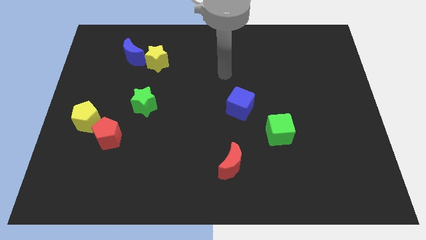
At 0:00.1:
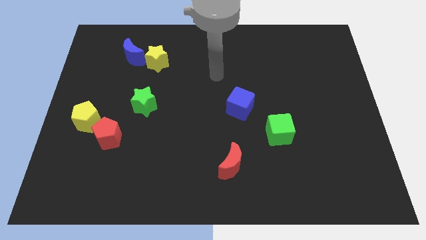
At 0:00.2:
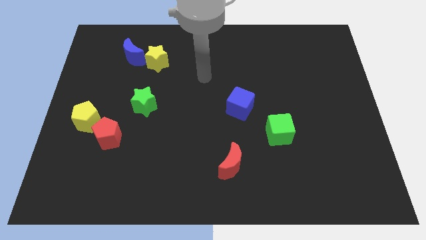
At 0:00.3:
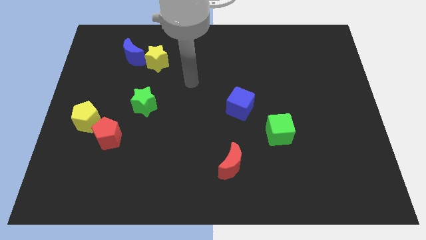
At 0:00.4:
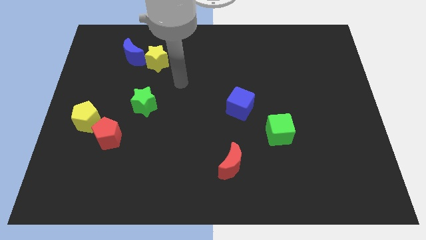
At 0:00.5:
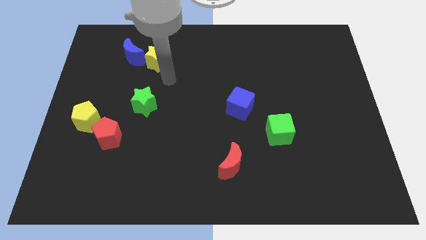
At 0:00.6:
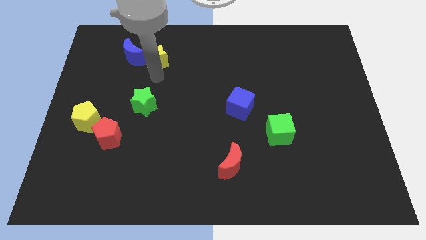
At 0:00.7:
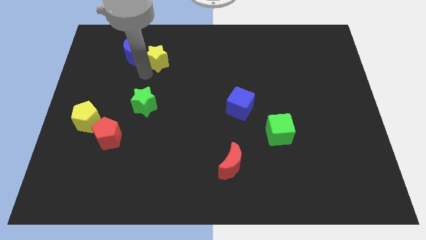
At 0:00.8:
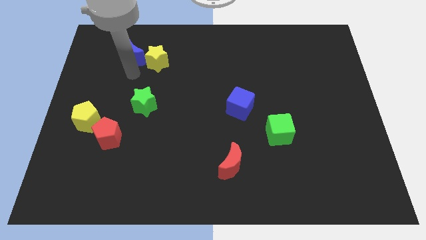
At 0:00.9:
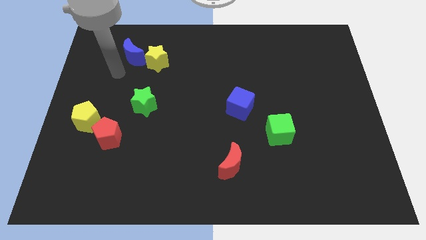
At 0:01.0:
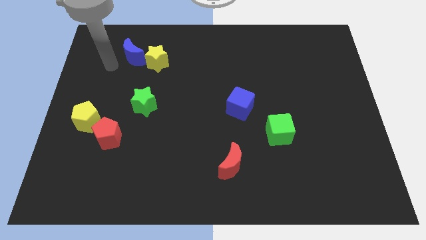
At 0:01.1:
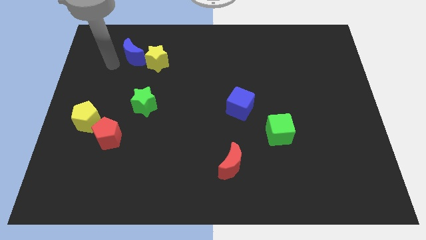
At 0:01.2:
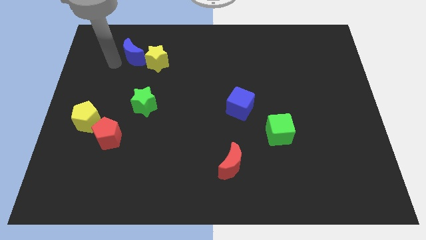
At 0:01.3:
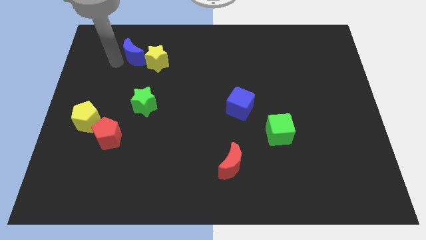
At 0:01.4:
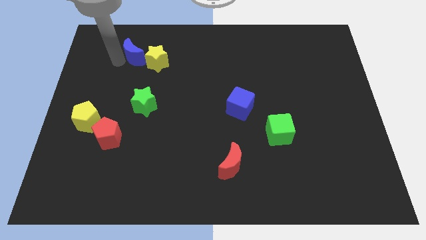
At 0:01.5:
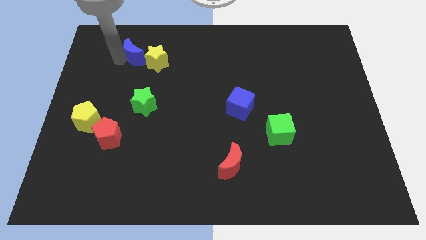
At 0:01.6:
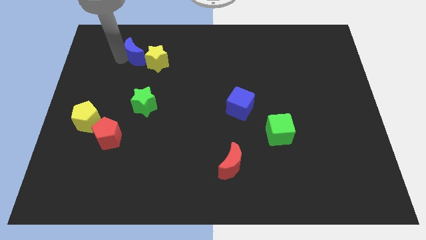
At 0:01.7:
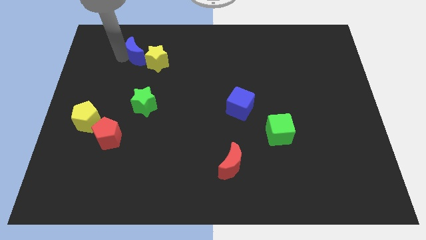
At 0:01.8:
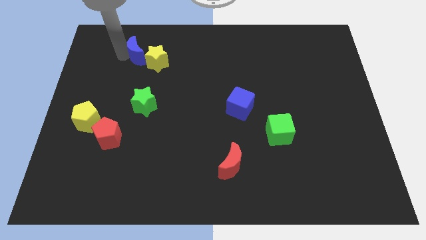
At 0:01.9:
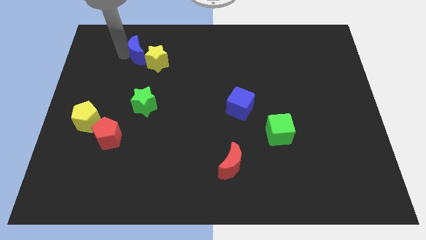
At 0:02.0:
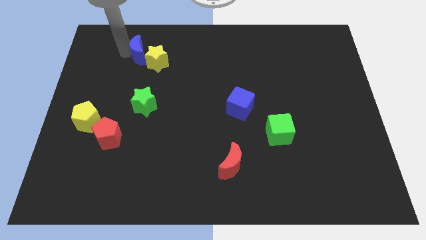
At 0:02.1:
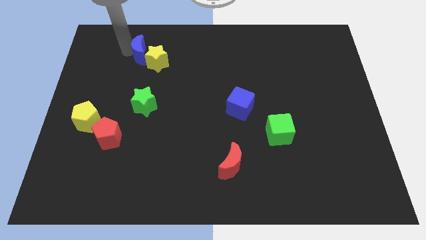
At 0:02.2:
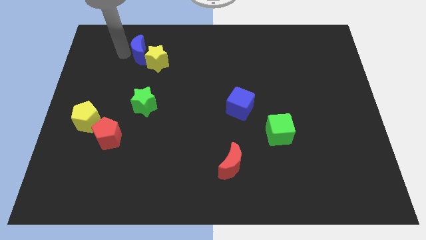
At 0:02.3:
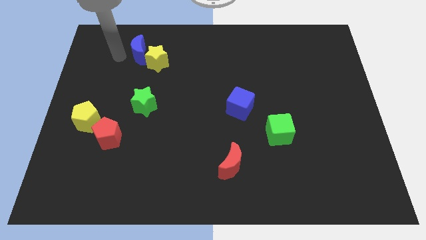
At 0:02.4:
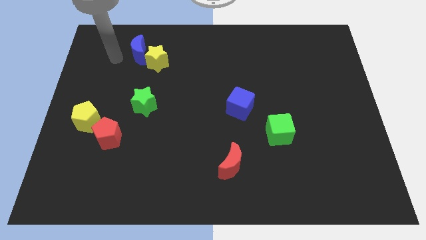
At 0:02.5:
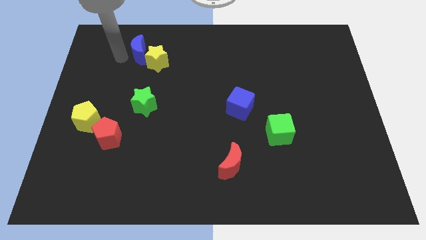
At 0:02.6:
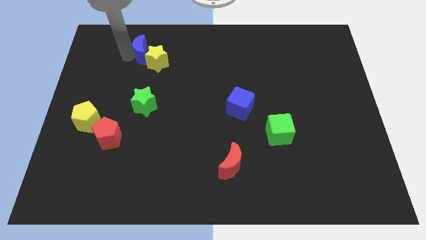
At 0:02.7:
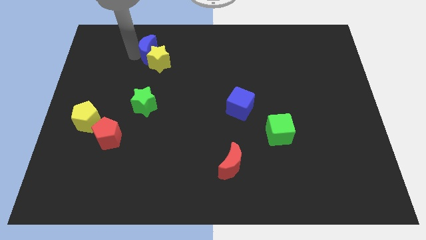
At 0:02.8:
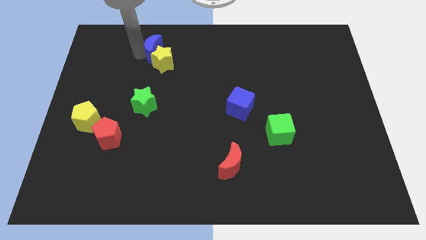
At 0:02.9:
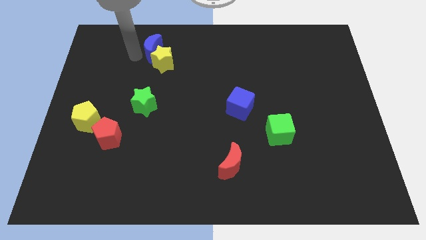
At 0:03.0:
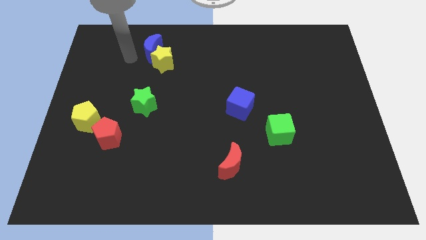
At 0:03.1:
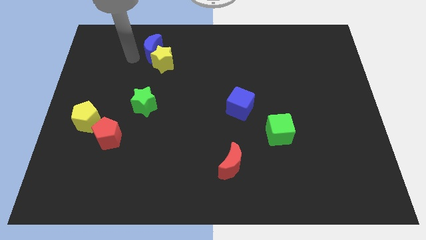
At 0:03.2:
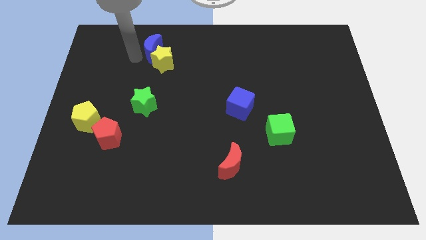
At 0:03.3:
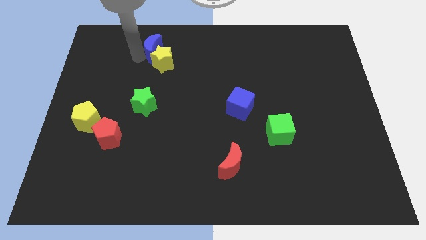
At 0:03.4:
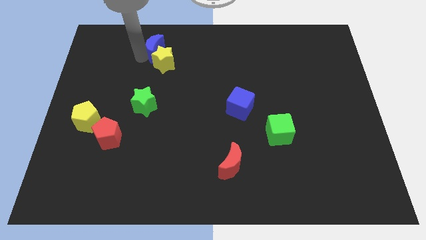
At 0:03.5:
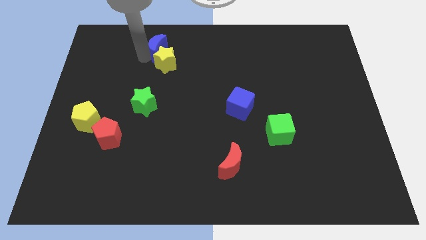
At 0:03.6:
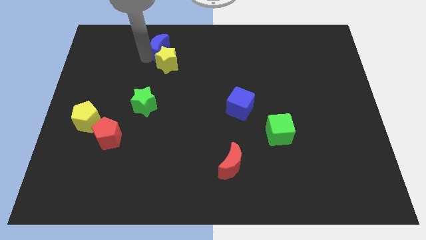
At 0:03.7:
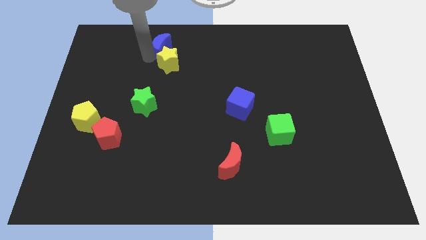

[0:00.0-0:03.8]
slide the blue moon a little to the right

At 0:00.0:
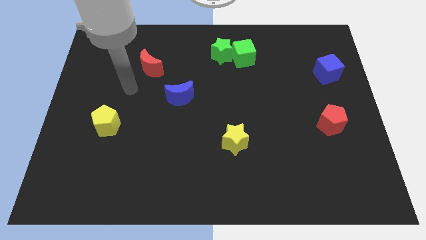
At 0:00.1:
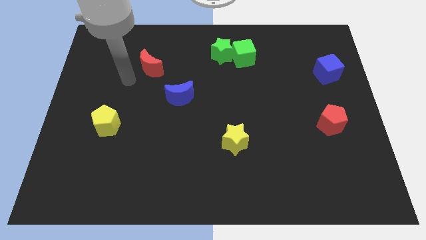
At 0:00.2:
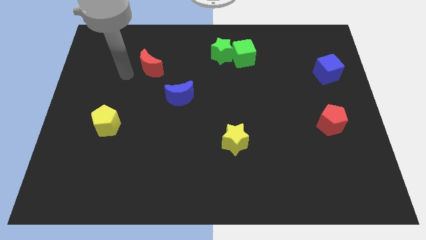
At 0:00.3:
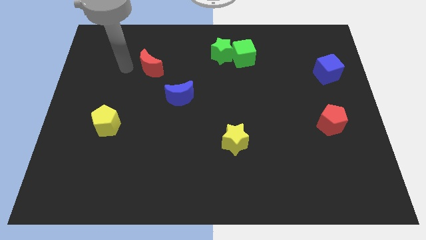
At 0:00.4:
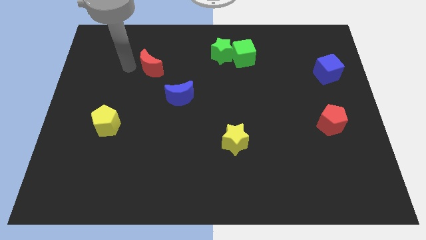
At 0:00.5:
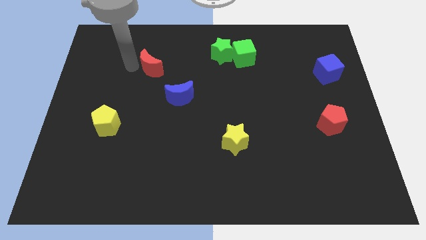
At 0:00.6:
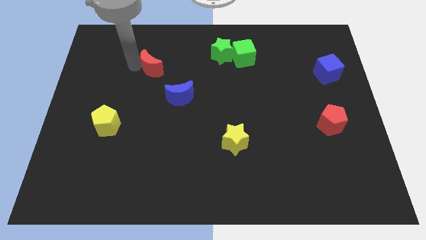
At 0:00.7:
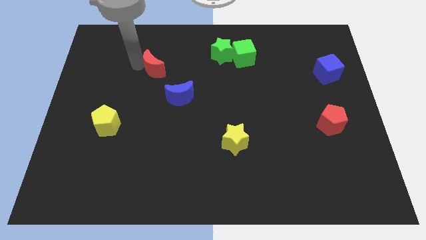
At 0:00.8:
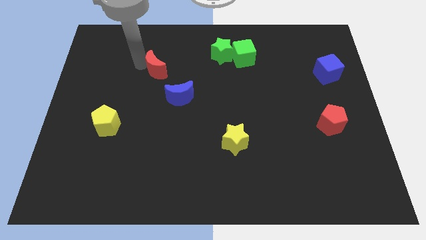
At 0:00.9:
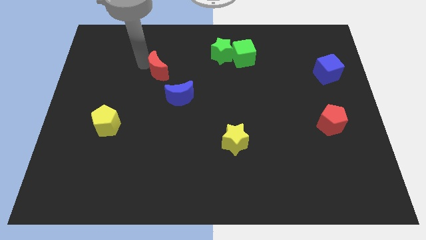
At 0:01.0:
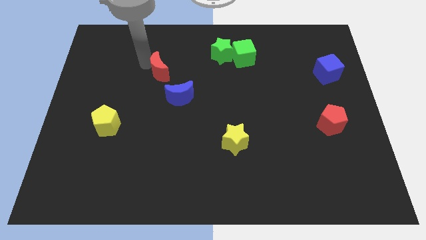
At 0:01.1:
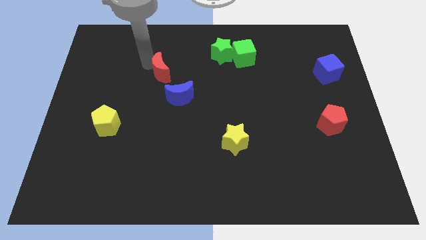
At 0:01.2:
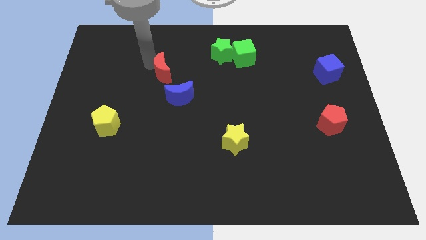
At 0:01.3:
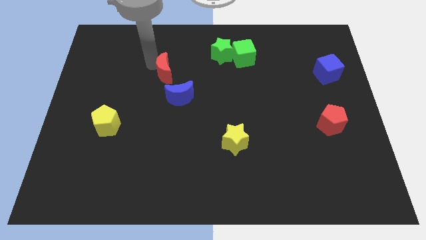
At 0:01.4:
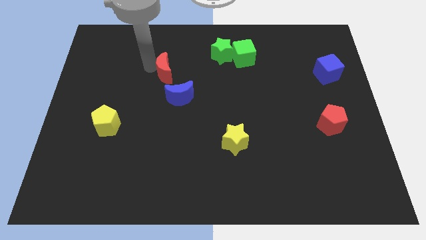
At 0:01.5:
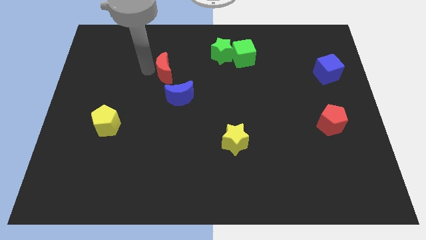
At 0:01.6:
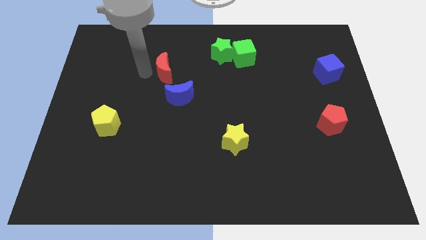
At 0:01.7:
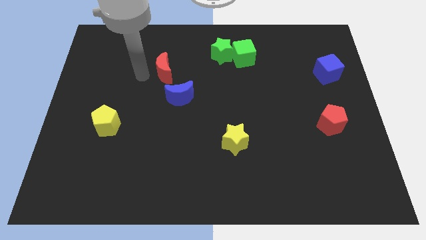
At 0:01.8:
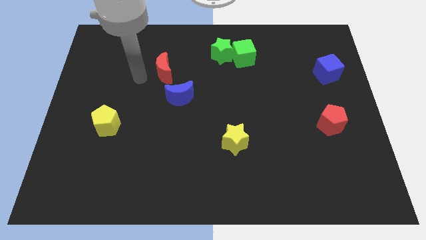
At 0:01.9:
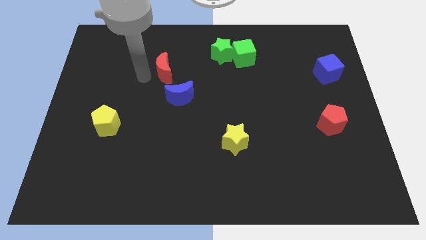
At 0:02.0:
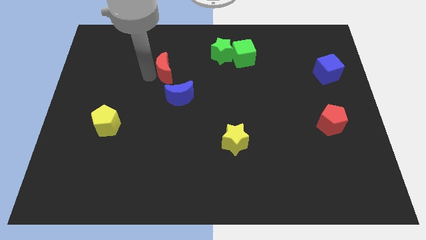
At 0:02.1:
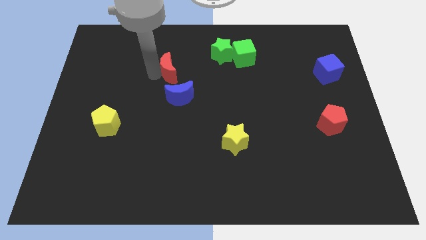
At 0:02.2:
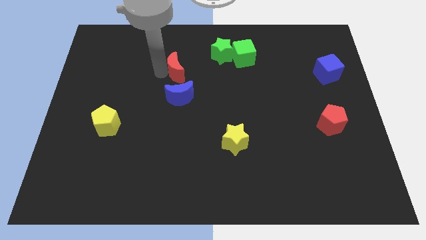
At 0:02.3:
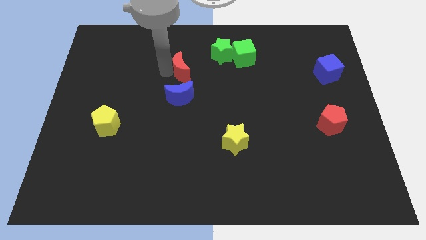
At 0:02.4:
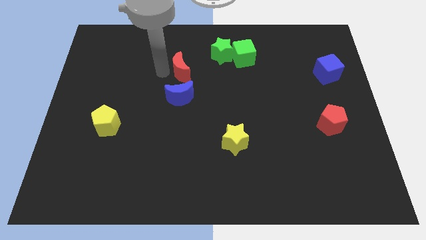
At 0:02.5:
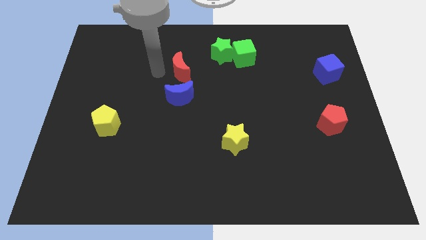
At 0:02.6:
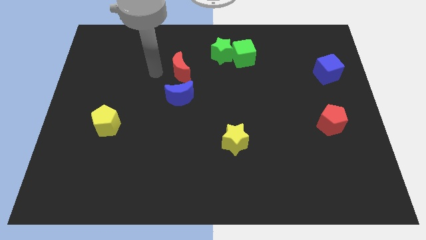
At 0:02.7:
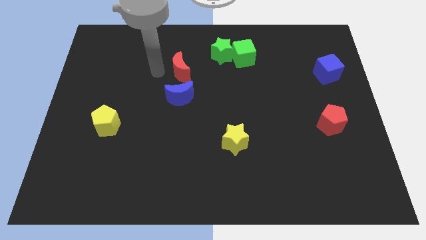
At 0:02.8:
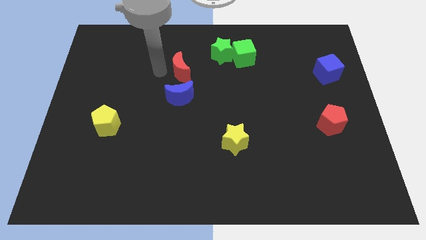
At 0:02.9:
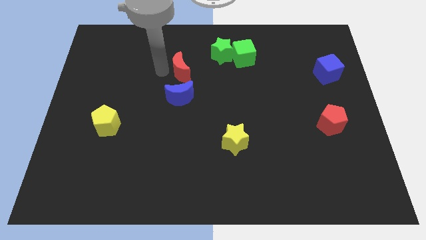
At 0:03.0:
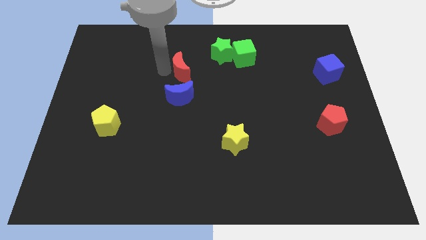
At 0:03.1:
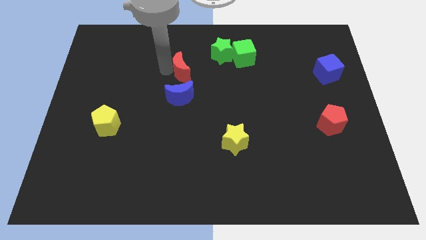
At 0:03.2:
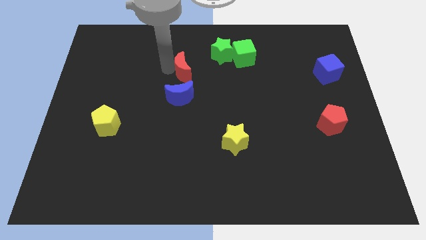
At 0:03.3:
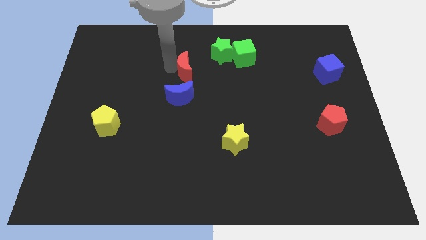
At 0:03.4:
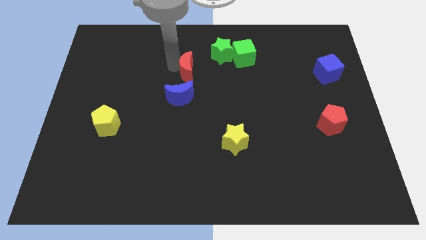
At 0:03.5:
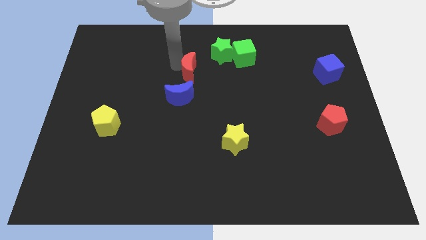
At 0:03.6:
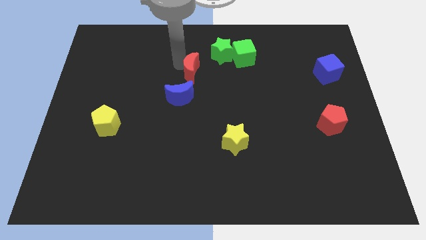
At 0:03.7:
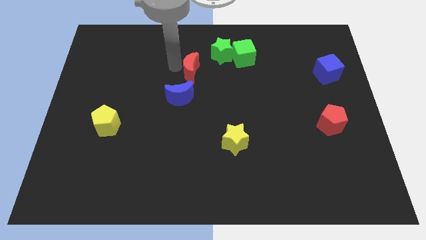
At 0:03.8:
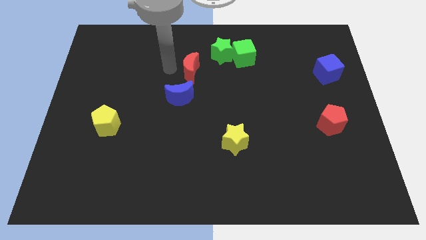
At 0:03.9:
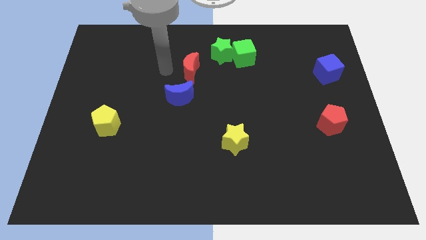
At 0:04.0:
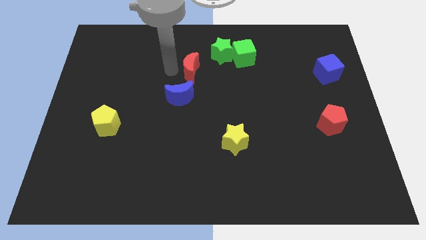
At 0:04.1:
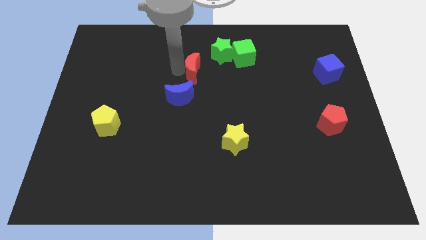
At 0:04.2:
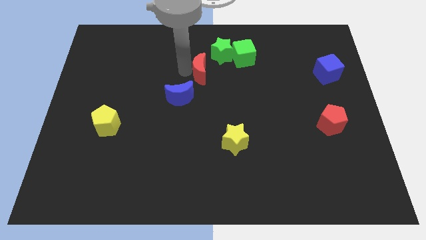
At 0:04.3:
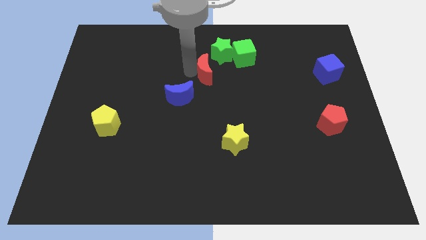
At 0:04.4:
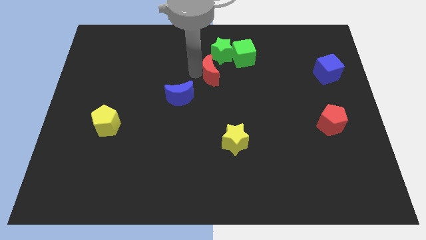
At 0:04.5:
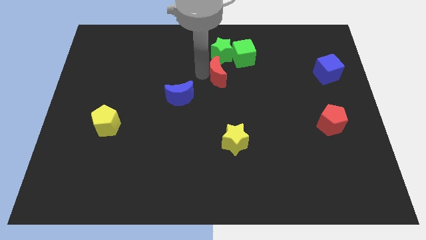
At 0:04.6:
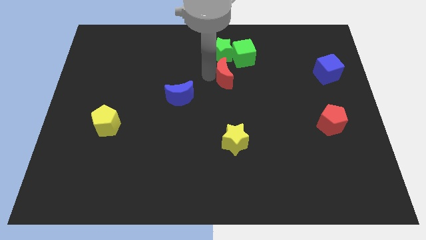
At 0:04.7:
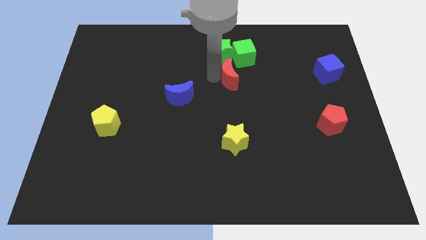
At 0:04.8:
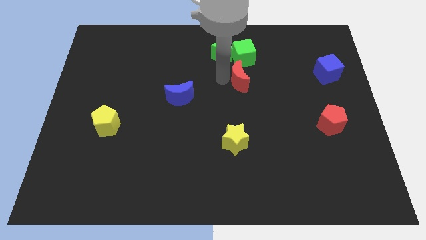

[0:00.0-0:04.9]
slide the red moon right
